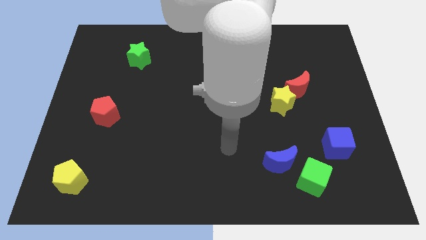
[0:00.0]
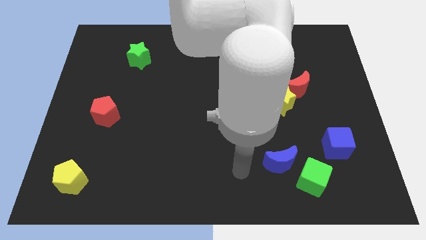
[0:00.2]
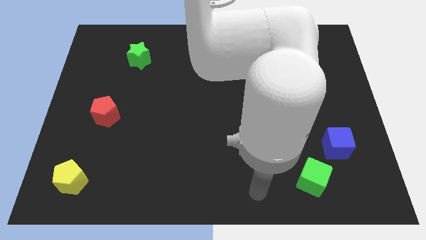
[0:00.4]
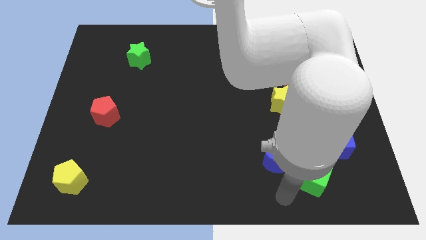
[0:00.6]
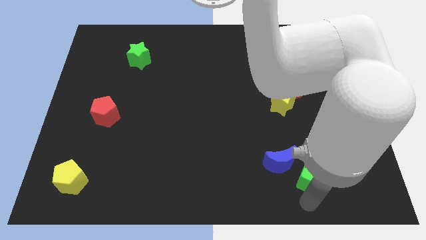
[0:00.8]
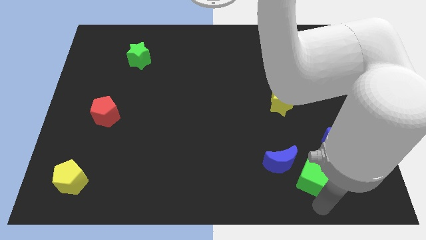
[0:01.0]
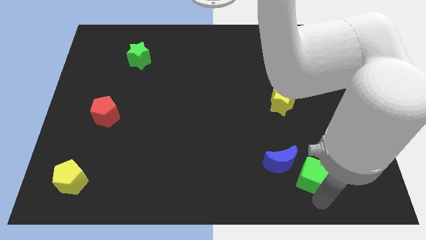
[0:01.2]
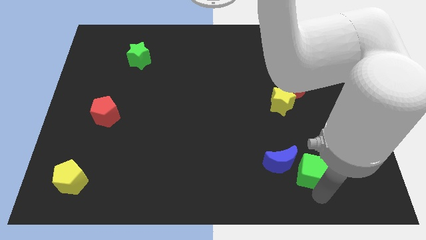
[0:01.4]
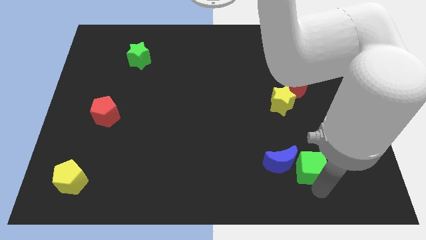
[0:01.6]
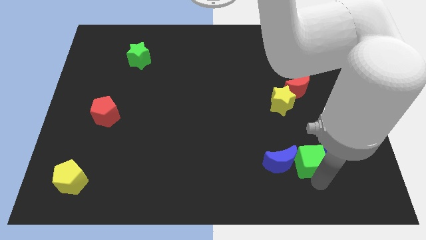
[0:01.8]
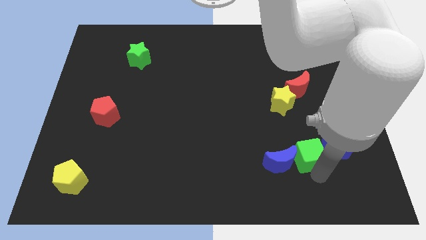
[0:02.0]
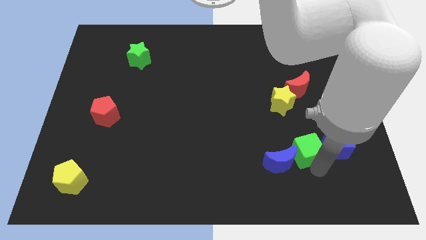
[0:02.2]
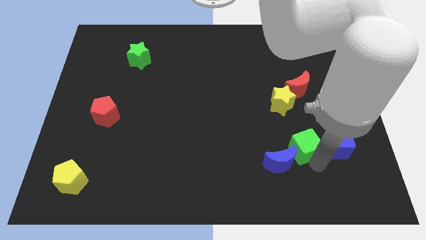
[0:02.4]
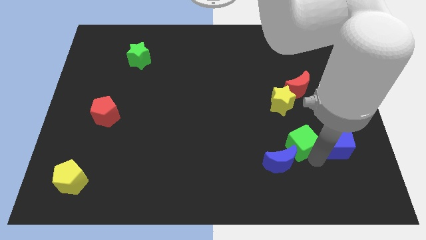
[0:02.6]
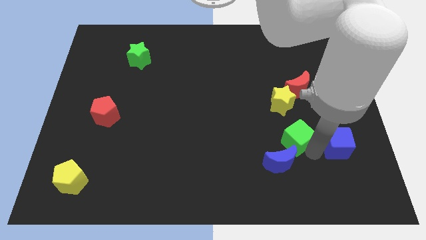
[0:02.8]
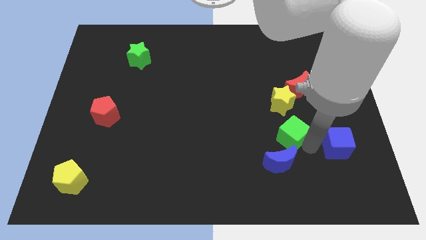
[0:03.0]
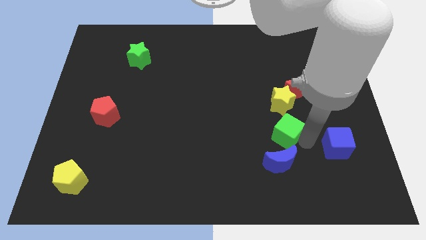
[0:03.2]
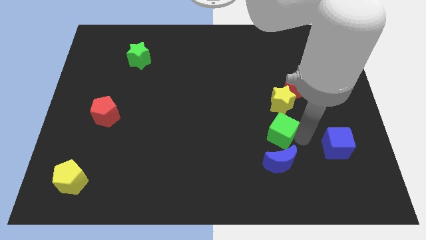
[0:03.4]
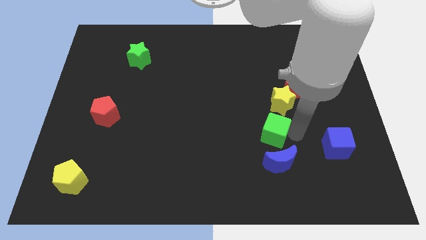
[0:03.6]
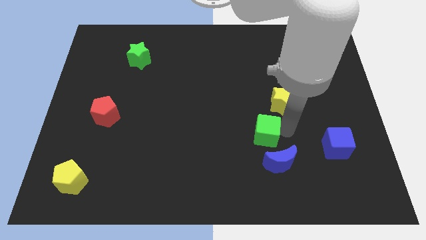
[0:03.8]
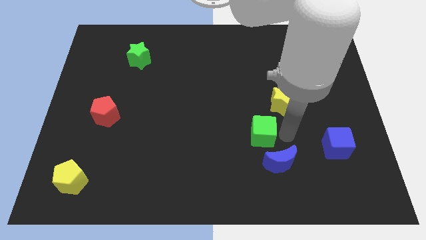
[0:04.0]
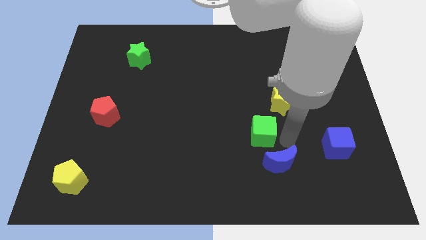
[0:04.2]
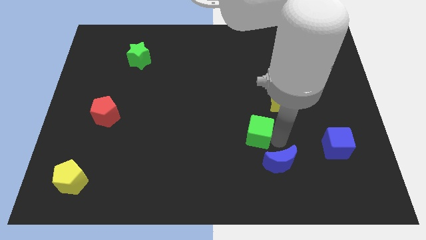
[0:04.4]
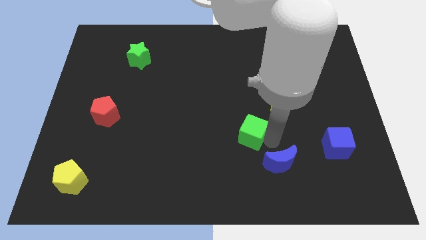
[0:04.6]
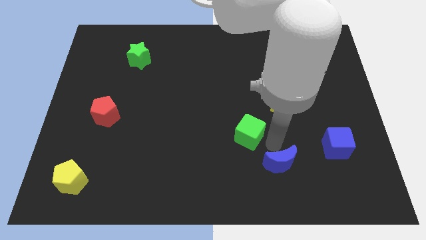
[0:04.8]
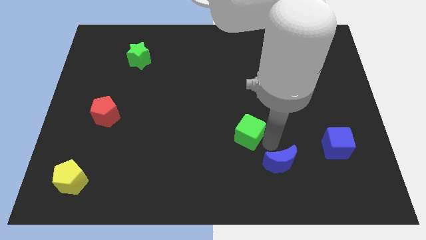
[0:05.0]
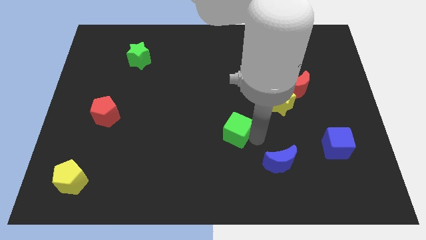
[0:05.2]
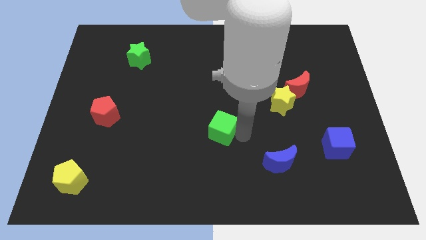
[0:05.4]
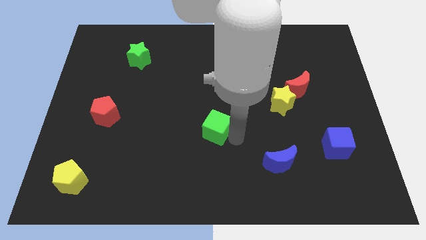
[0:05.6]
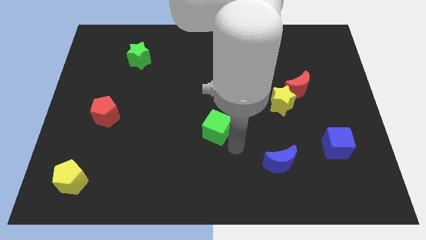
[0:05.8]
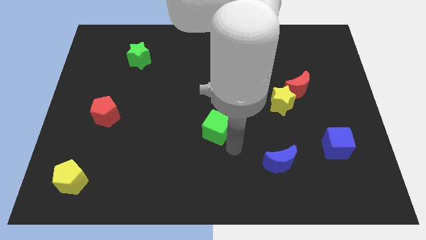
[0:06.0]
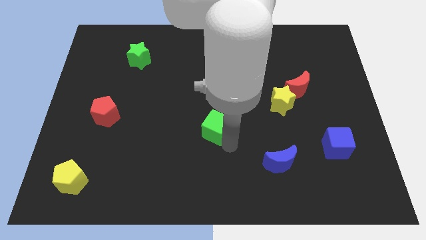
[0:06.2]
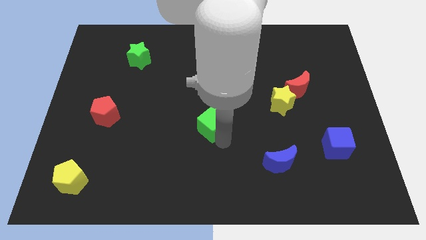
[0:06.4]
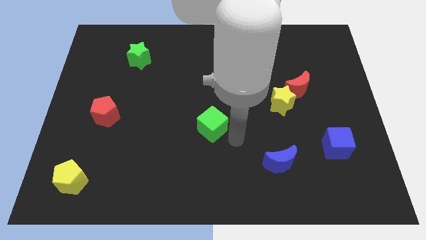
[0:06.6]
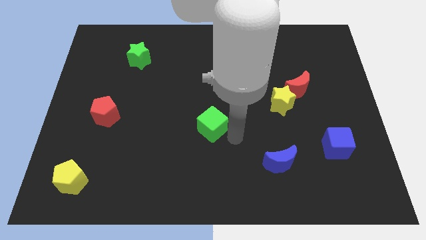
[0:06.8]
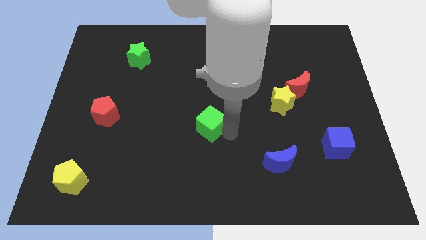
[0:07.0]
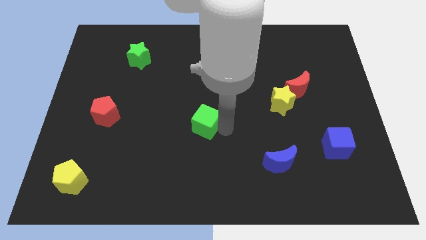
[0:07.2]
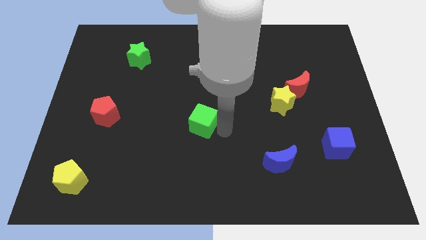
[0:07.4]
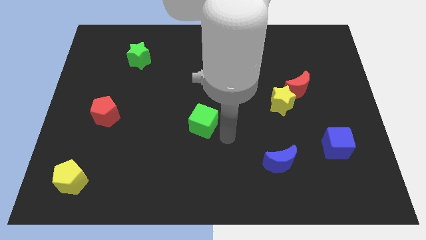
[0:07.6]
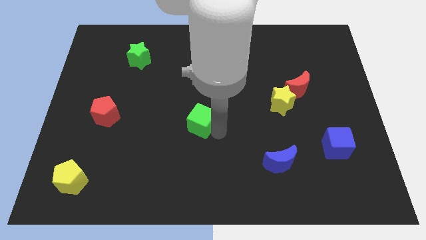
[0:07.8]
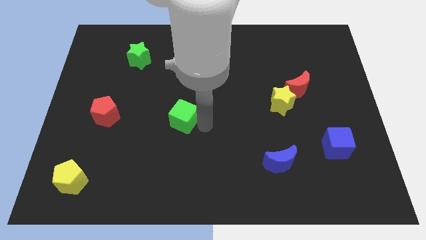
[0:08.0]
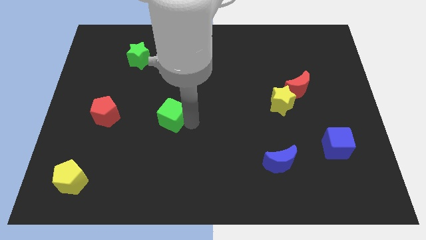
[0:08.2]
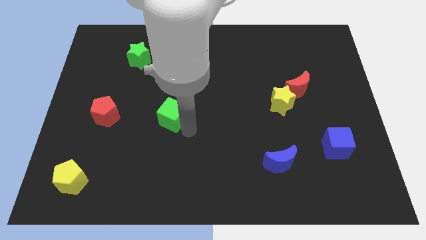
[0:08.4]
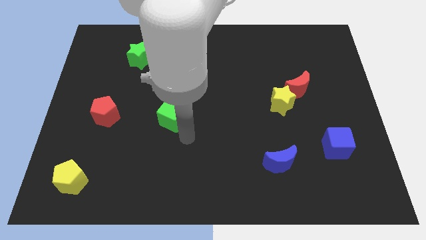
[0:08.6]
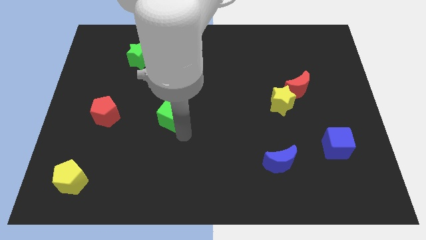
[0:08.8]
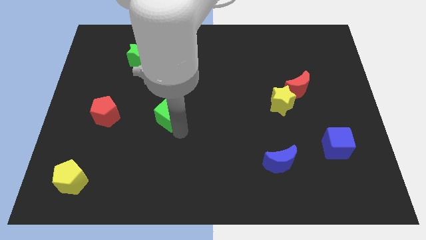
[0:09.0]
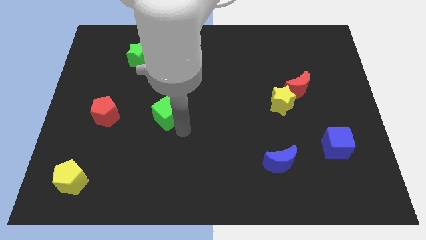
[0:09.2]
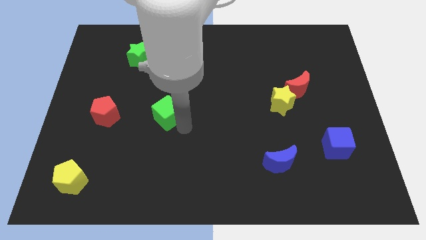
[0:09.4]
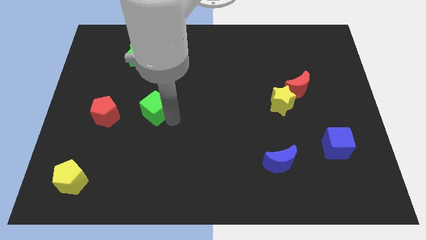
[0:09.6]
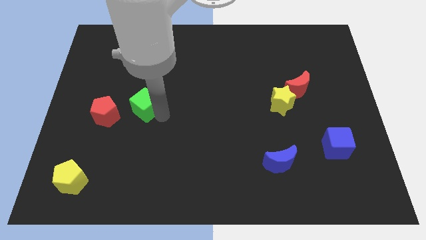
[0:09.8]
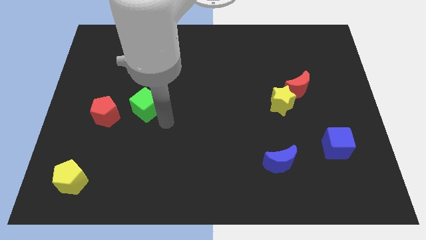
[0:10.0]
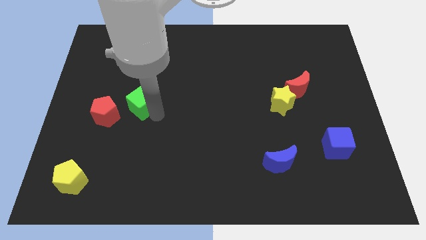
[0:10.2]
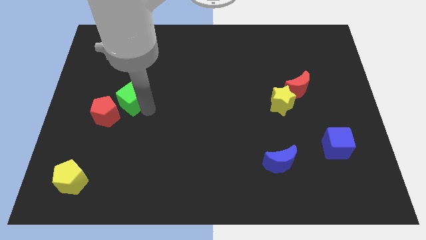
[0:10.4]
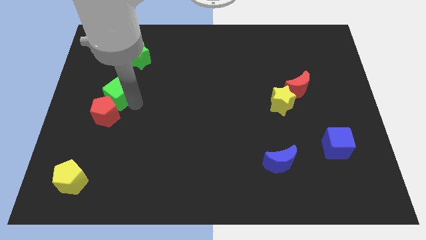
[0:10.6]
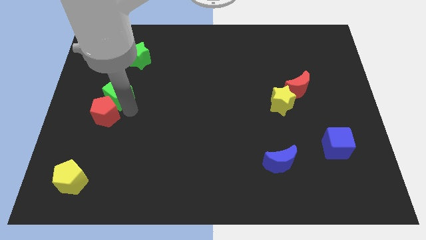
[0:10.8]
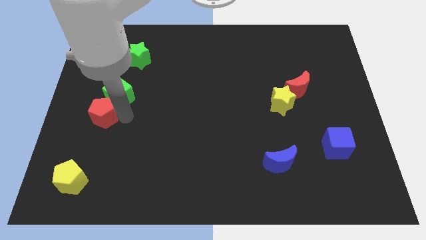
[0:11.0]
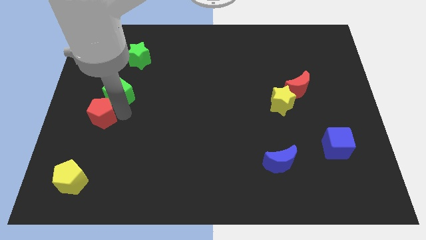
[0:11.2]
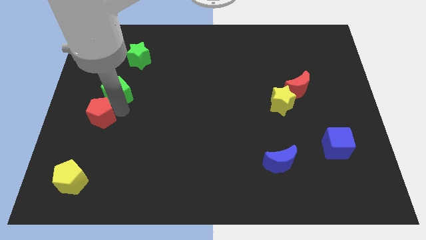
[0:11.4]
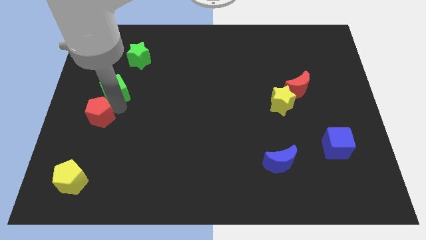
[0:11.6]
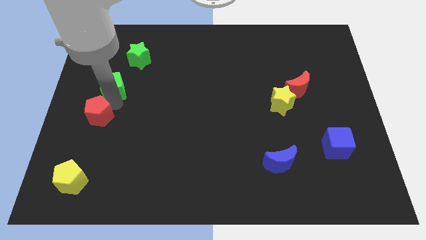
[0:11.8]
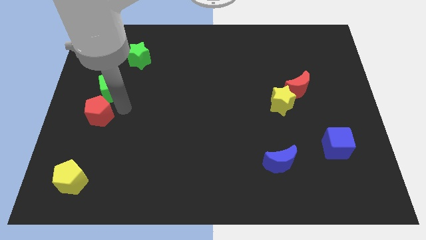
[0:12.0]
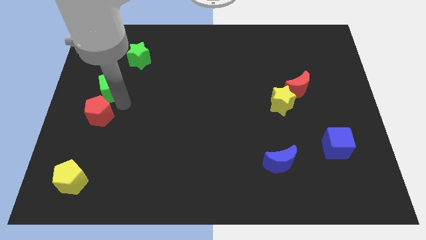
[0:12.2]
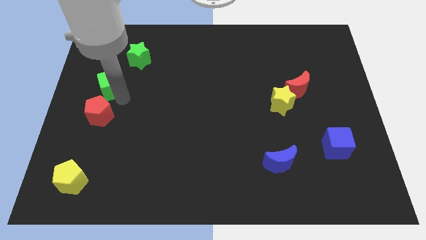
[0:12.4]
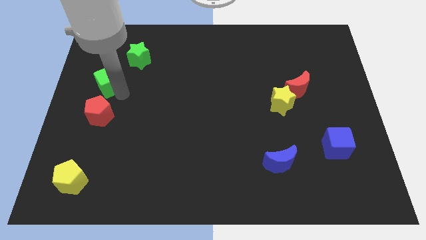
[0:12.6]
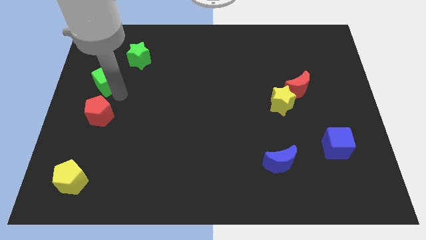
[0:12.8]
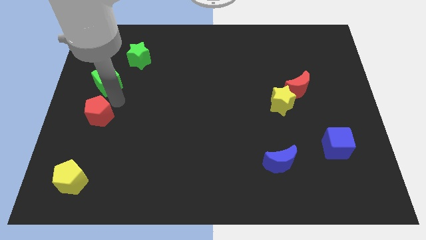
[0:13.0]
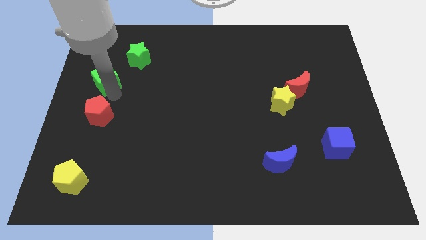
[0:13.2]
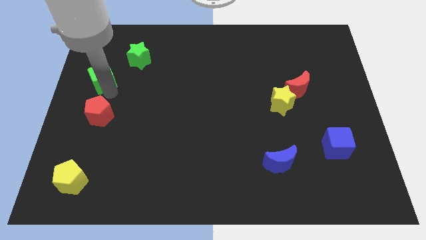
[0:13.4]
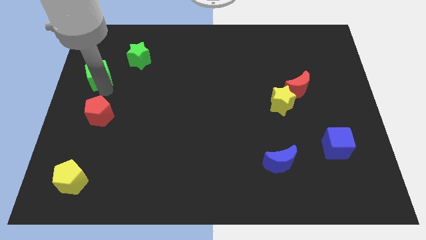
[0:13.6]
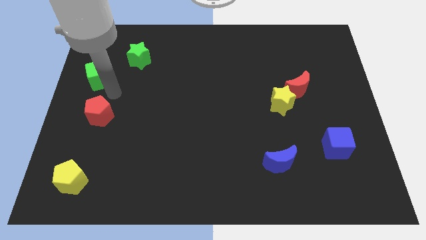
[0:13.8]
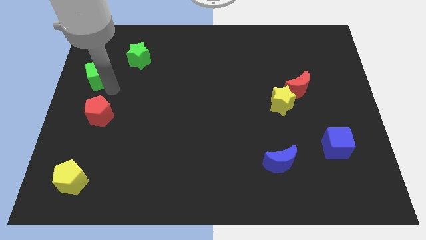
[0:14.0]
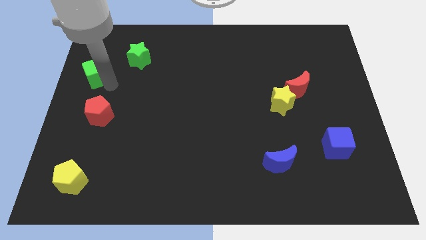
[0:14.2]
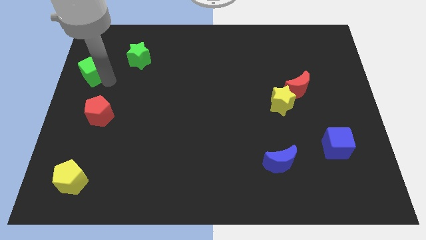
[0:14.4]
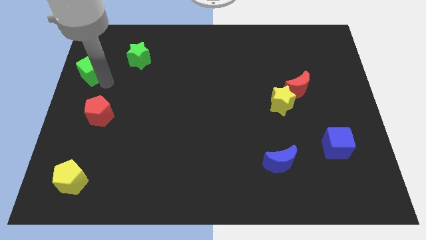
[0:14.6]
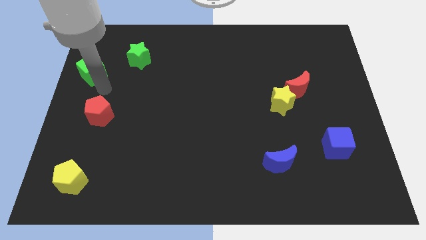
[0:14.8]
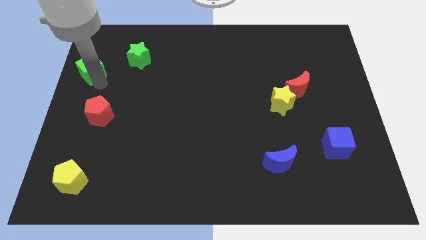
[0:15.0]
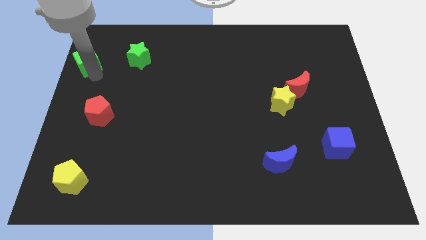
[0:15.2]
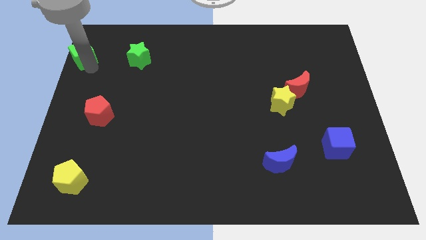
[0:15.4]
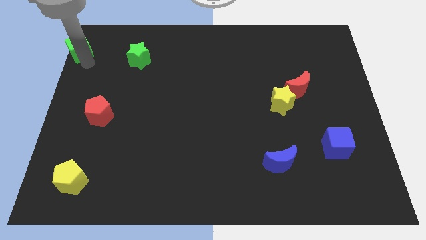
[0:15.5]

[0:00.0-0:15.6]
put the green cube to the top left
